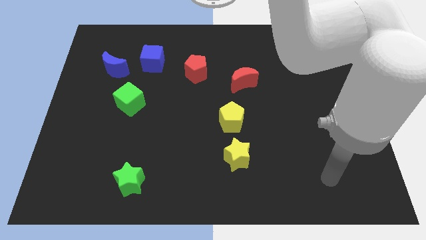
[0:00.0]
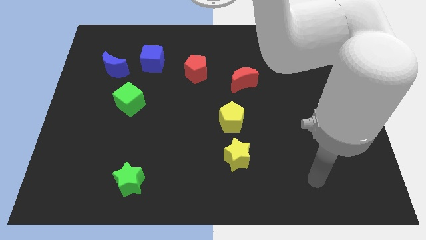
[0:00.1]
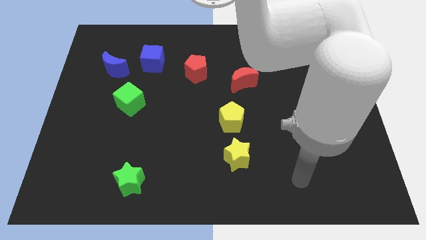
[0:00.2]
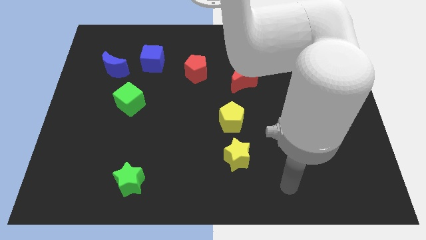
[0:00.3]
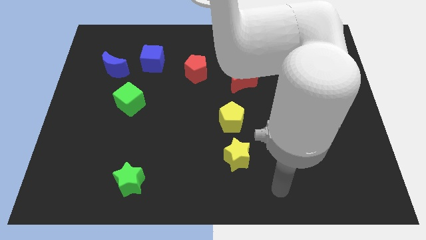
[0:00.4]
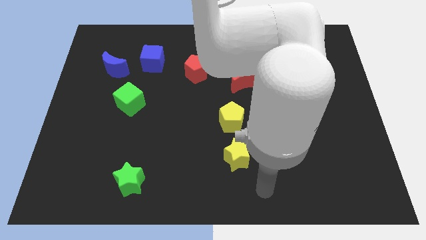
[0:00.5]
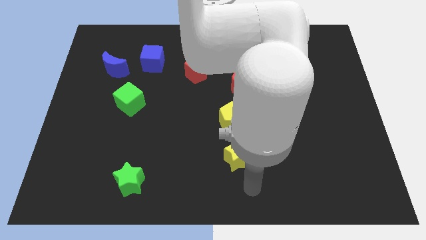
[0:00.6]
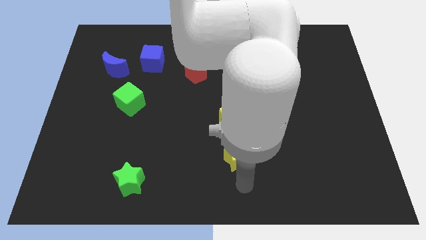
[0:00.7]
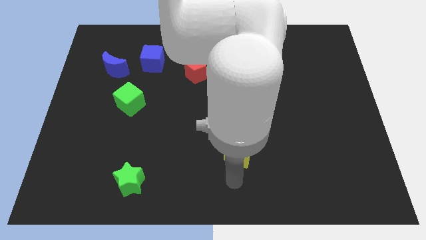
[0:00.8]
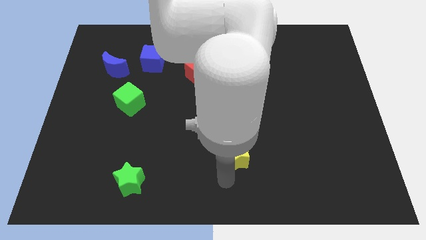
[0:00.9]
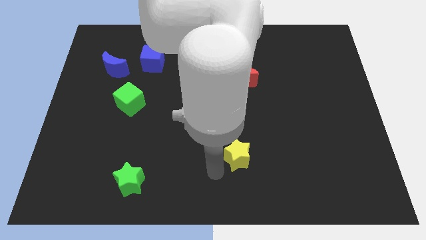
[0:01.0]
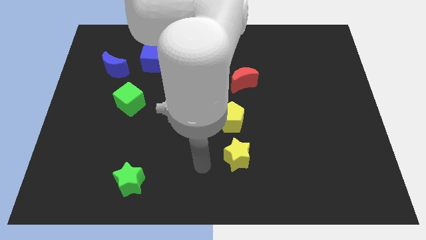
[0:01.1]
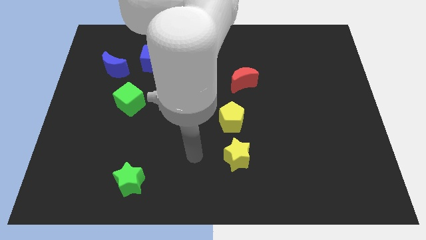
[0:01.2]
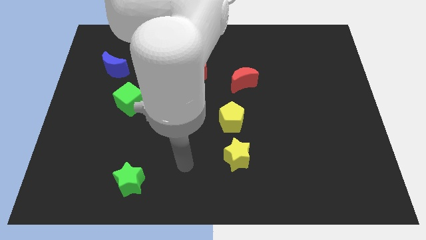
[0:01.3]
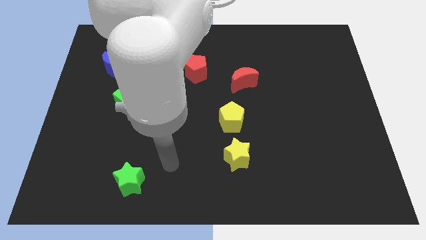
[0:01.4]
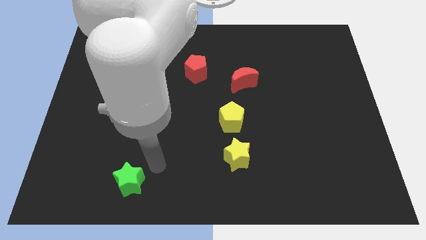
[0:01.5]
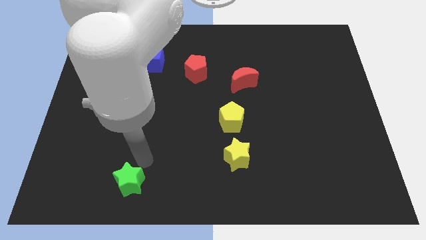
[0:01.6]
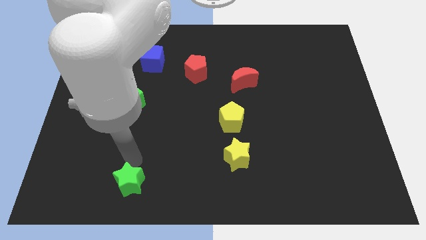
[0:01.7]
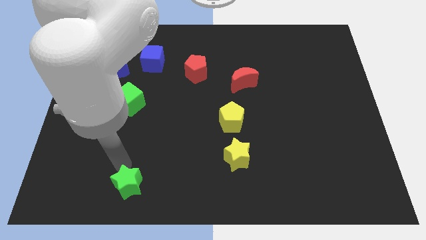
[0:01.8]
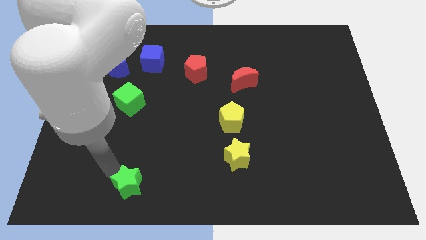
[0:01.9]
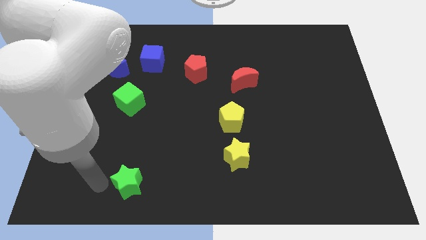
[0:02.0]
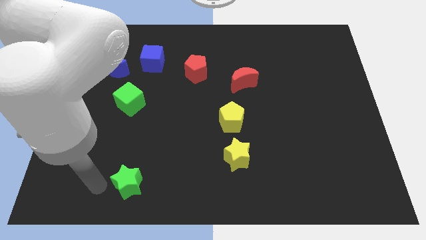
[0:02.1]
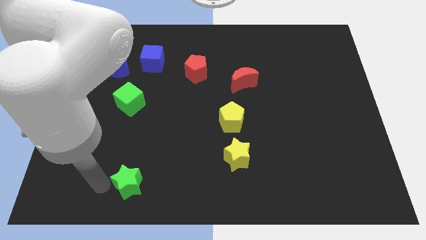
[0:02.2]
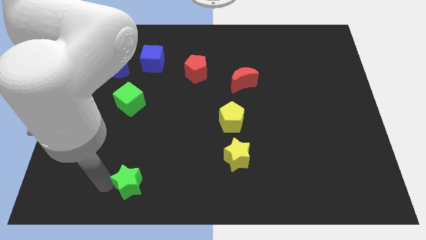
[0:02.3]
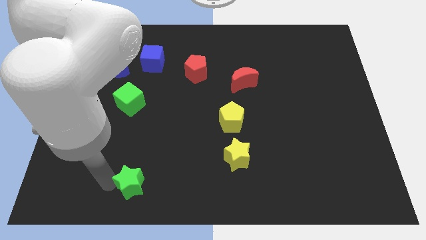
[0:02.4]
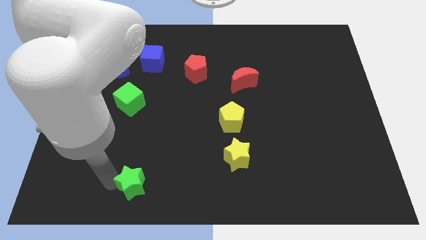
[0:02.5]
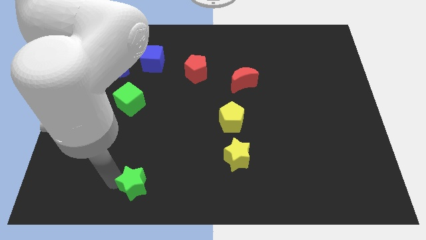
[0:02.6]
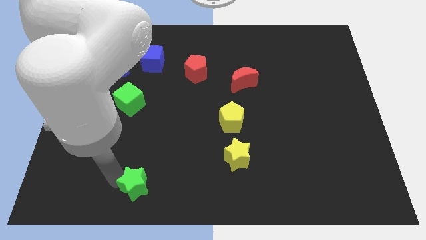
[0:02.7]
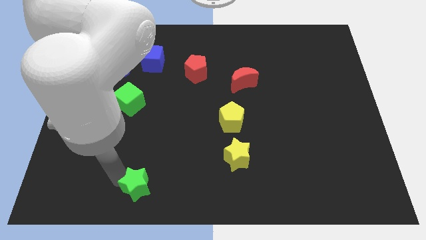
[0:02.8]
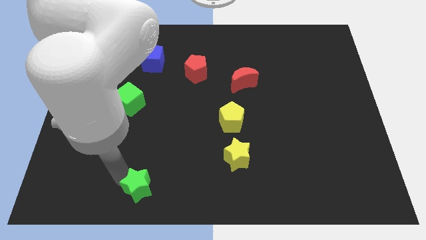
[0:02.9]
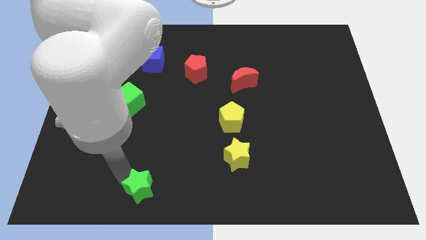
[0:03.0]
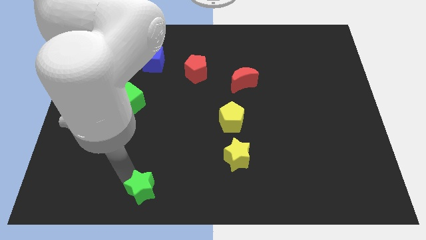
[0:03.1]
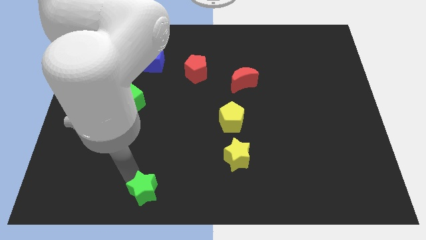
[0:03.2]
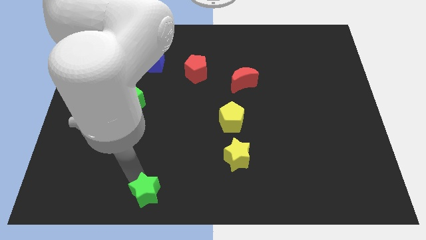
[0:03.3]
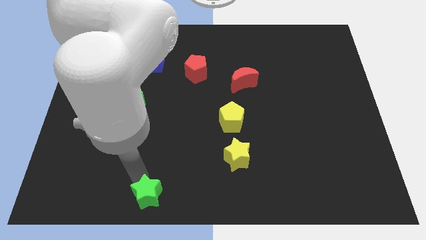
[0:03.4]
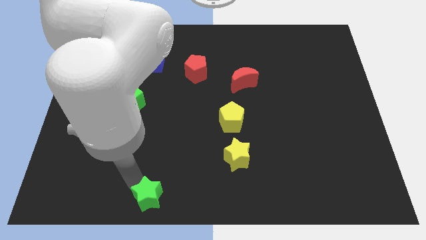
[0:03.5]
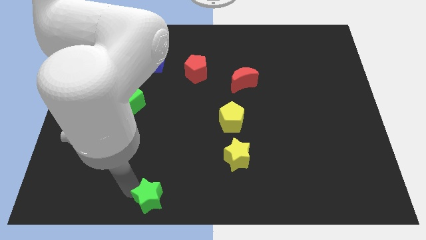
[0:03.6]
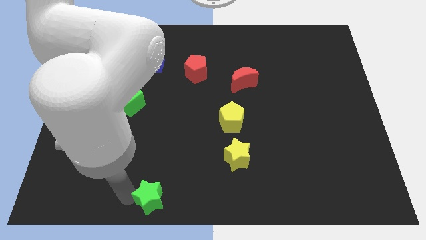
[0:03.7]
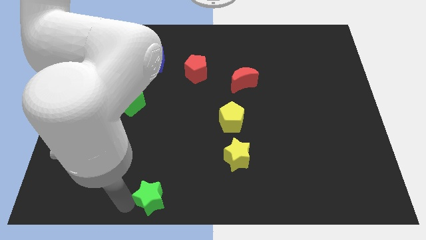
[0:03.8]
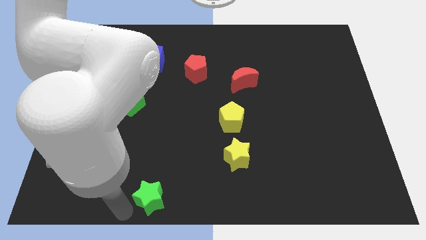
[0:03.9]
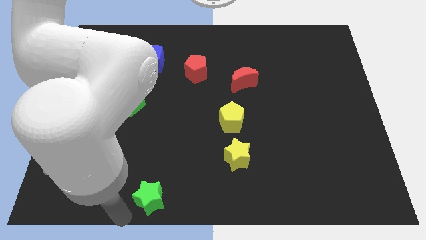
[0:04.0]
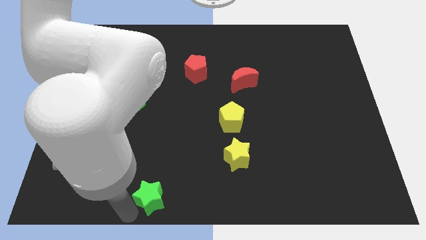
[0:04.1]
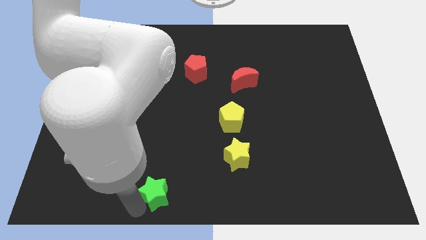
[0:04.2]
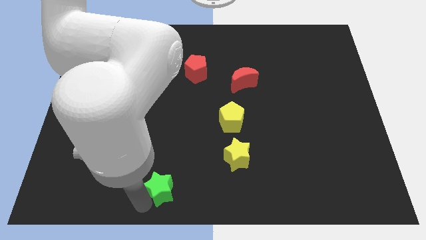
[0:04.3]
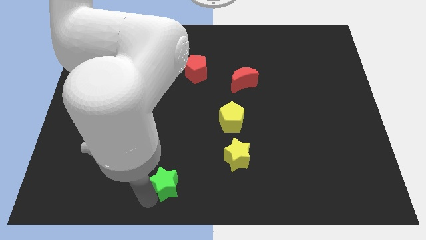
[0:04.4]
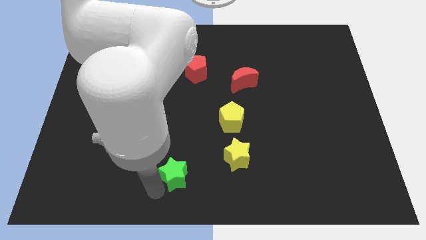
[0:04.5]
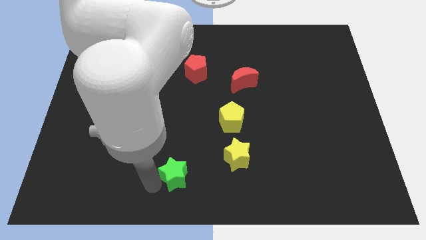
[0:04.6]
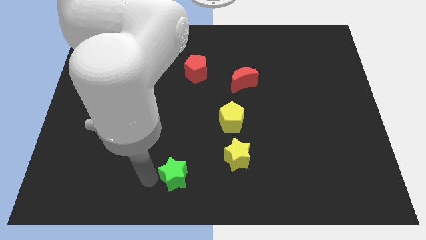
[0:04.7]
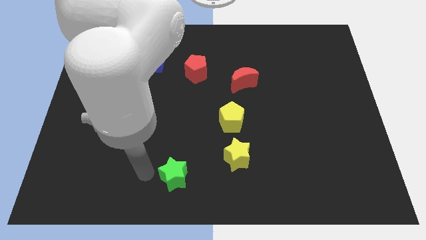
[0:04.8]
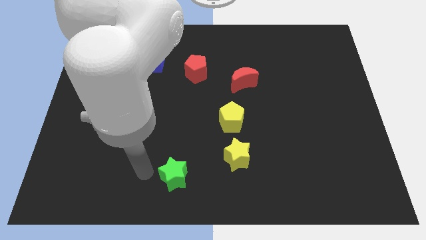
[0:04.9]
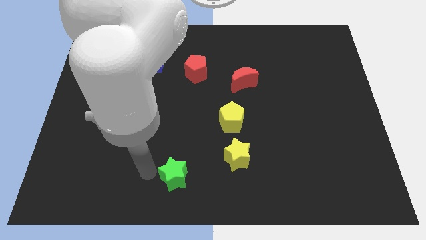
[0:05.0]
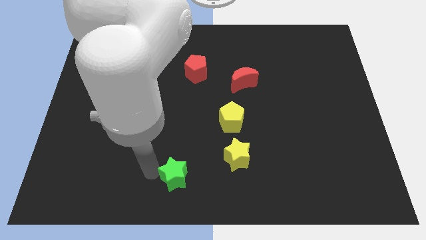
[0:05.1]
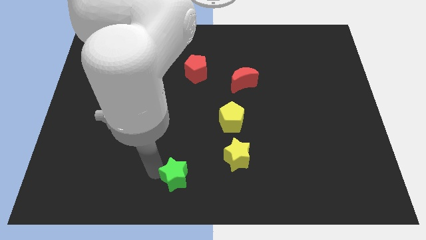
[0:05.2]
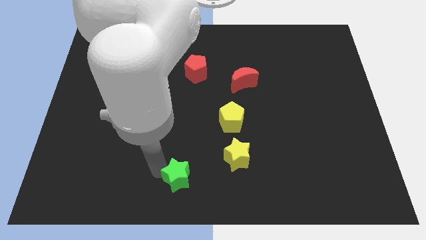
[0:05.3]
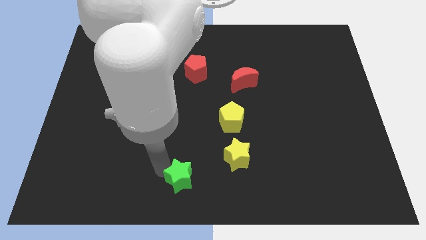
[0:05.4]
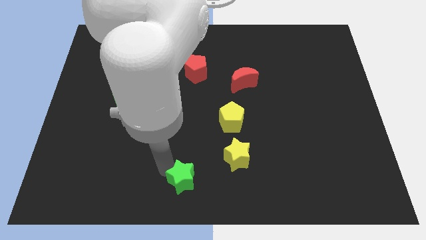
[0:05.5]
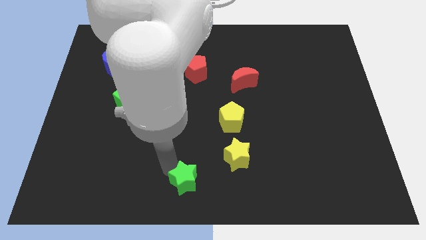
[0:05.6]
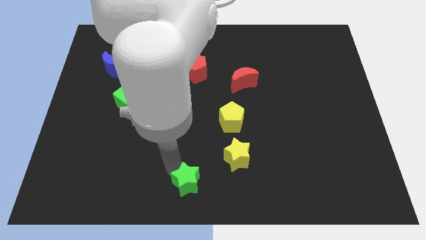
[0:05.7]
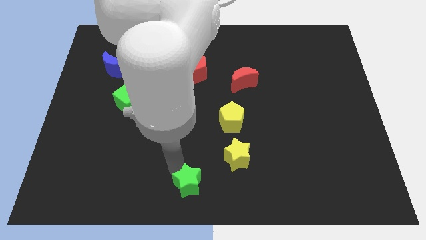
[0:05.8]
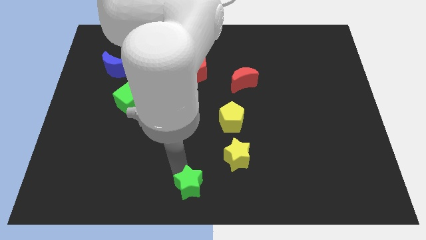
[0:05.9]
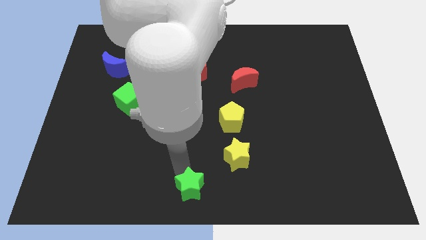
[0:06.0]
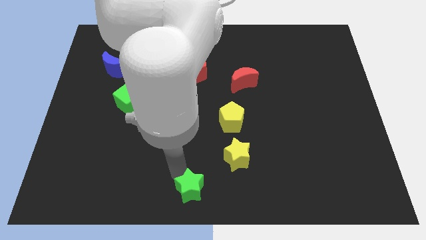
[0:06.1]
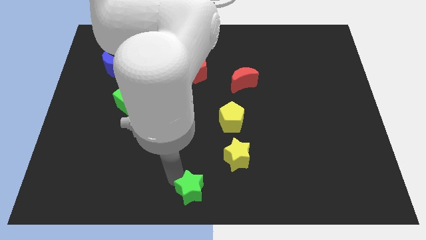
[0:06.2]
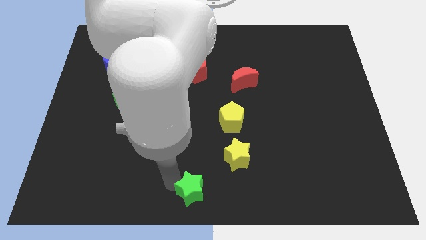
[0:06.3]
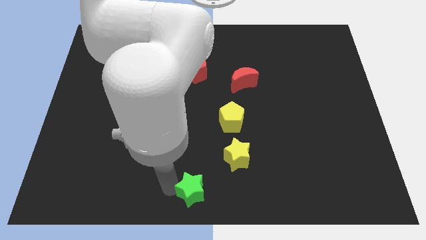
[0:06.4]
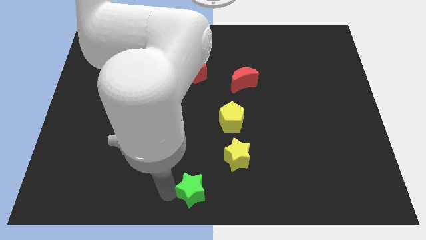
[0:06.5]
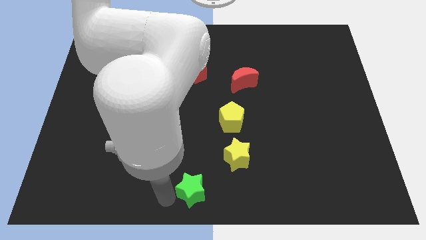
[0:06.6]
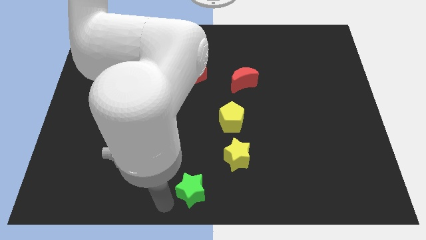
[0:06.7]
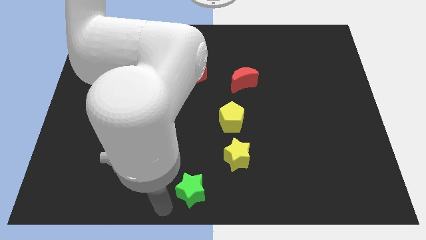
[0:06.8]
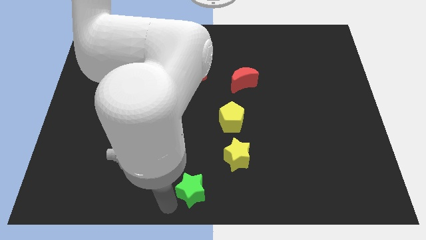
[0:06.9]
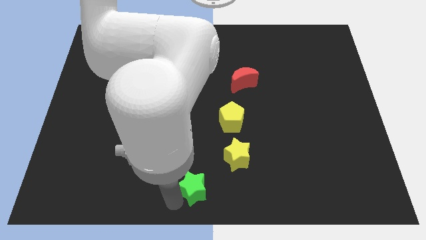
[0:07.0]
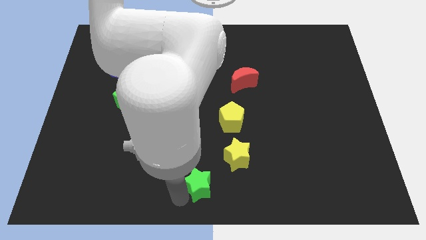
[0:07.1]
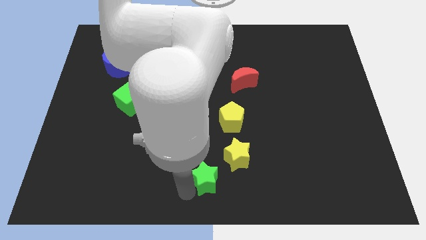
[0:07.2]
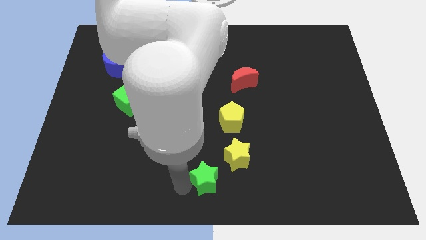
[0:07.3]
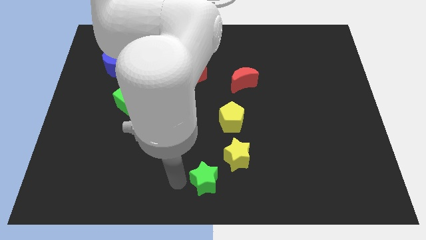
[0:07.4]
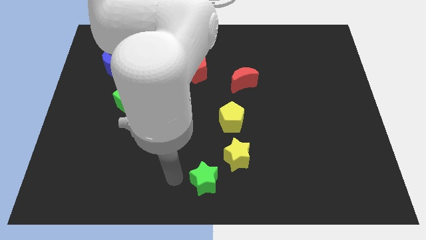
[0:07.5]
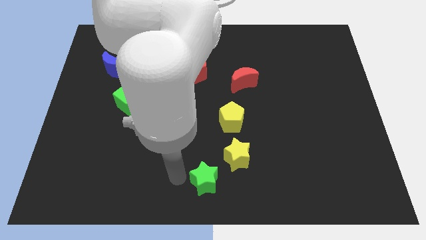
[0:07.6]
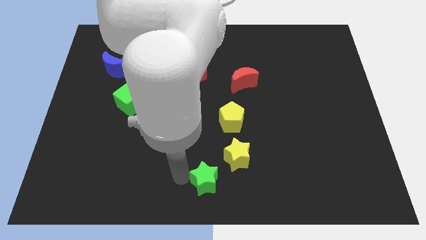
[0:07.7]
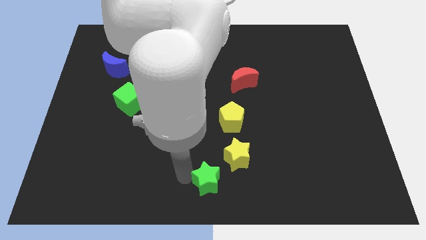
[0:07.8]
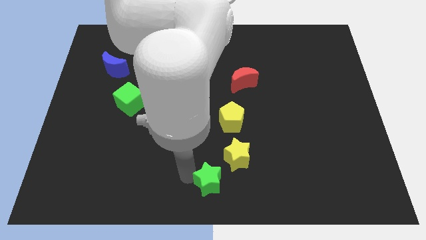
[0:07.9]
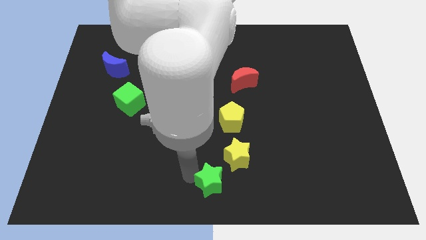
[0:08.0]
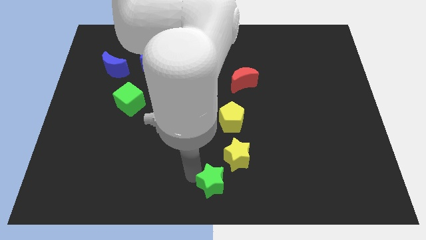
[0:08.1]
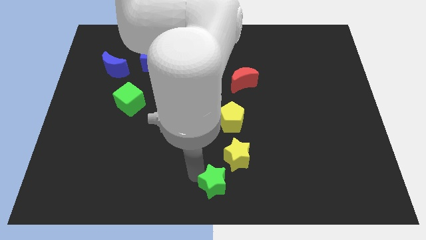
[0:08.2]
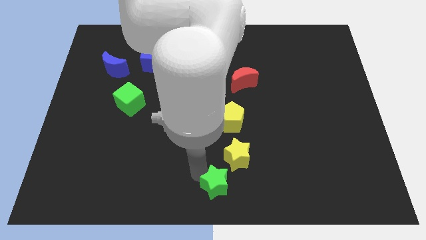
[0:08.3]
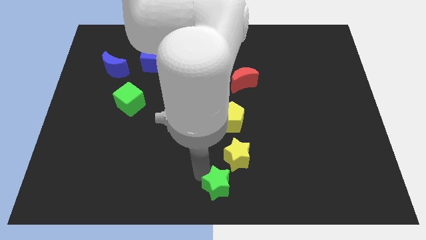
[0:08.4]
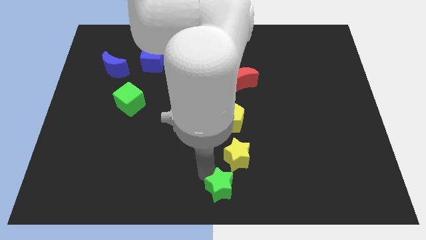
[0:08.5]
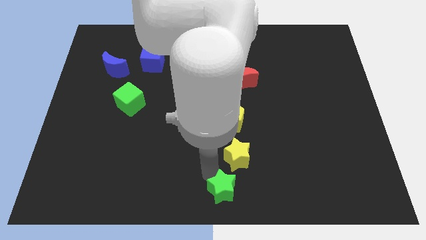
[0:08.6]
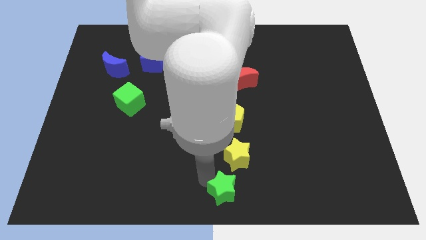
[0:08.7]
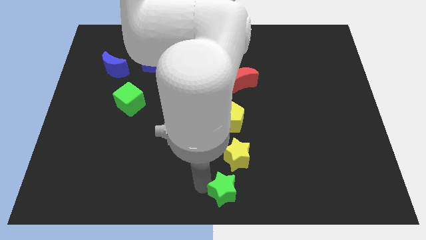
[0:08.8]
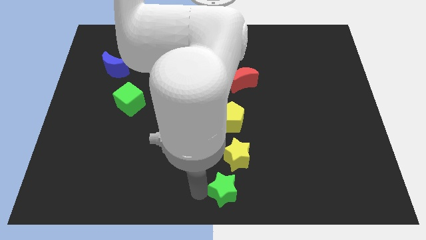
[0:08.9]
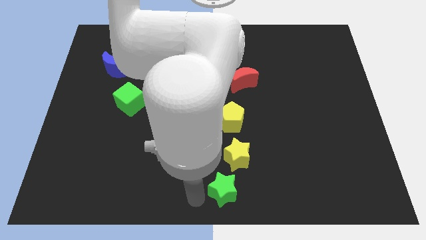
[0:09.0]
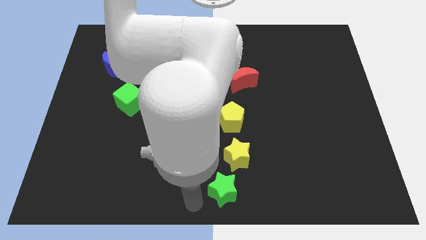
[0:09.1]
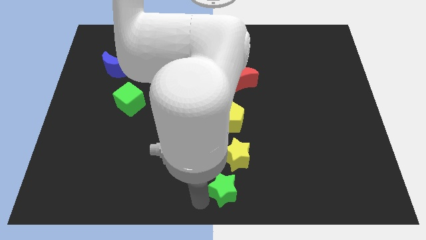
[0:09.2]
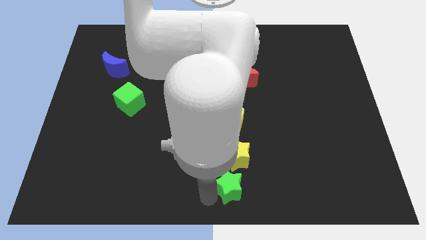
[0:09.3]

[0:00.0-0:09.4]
slide the green star right
